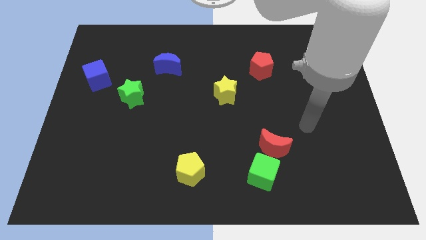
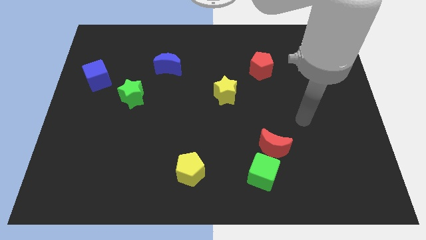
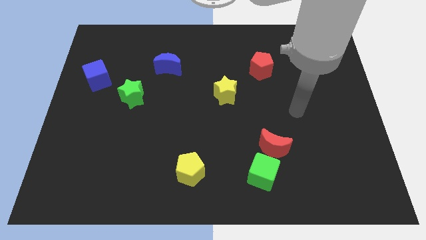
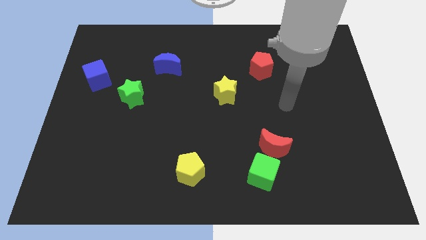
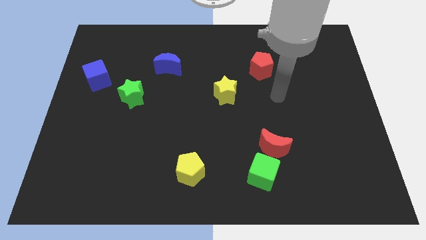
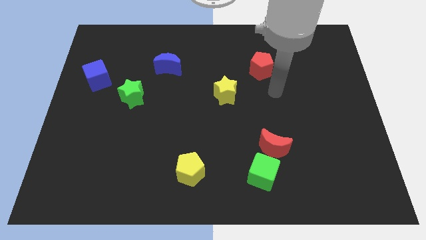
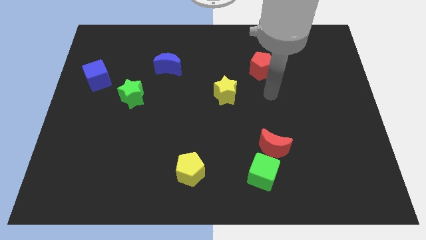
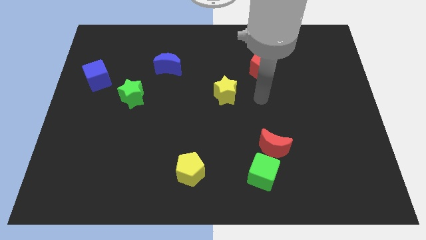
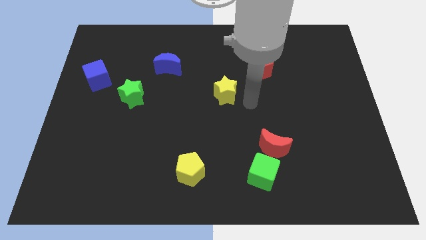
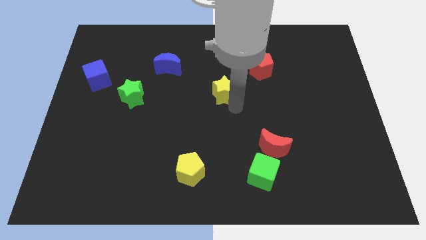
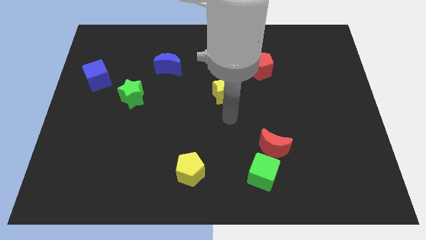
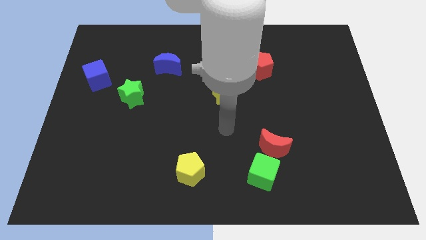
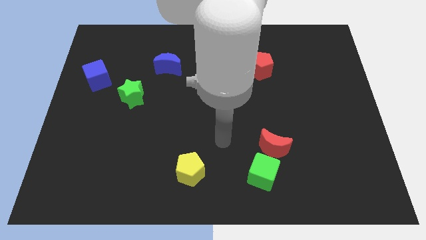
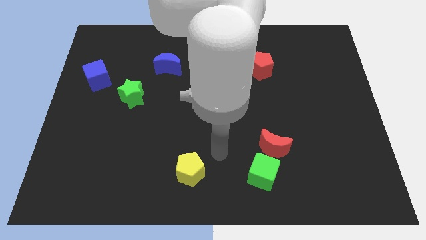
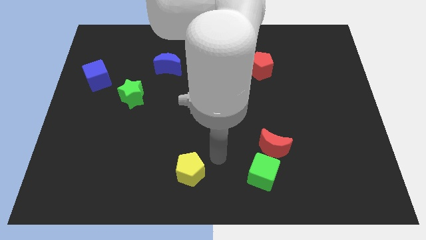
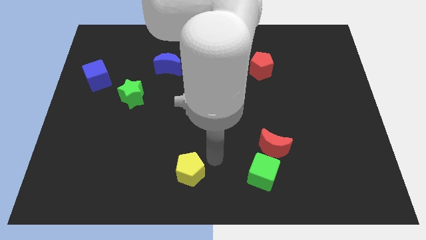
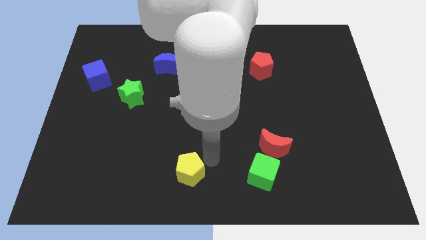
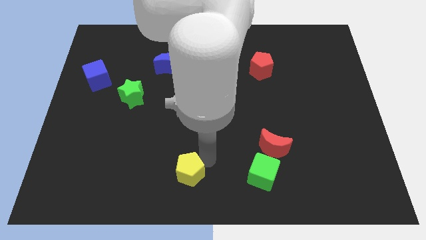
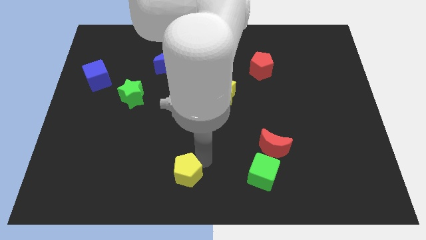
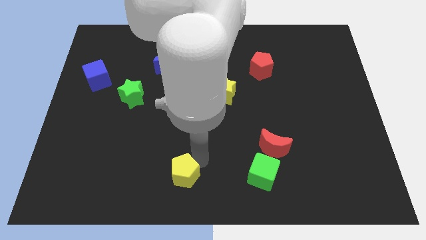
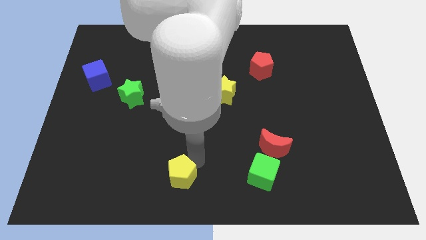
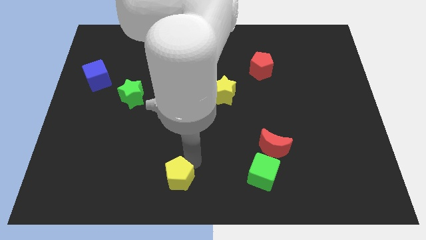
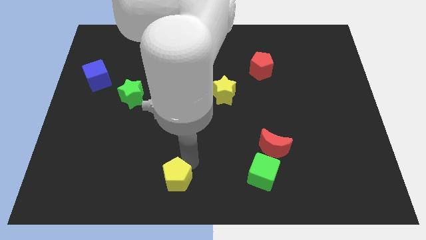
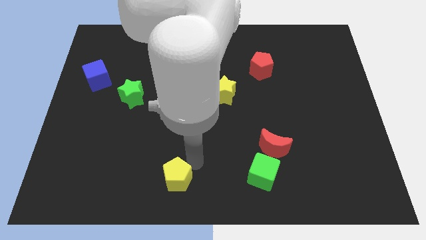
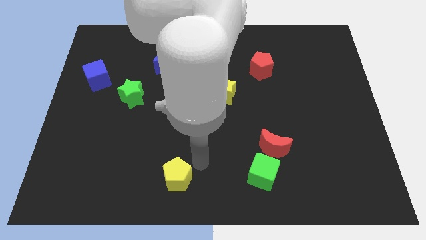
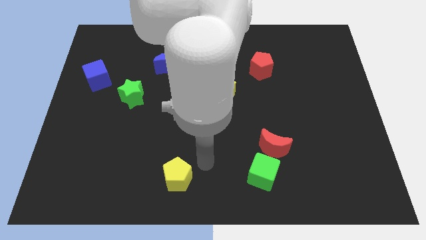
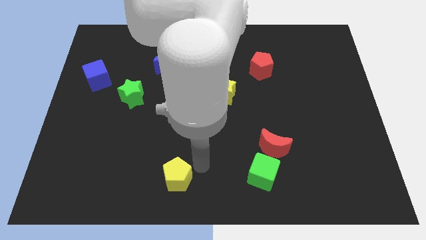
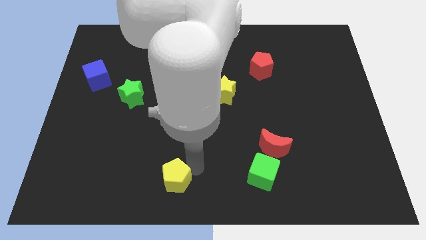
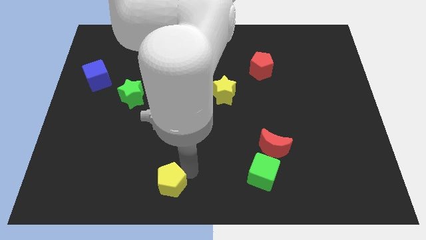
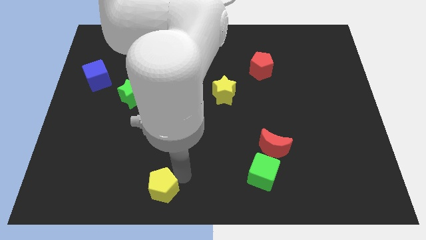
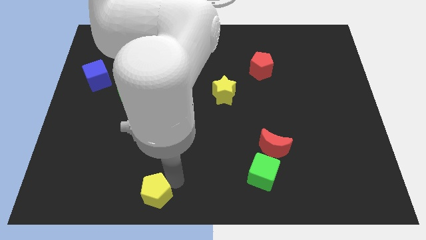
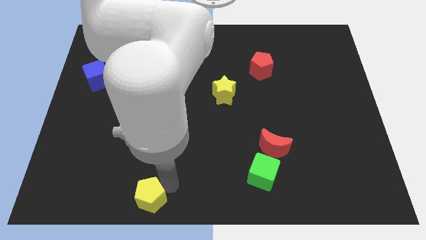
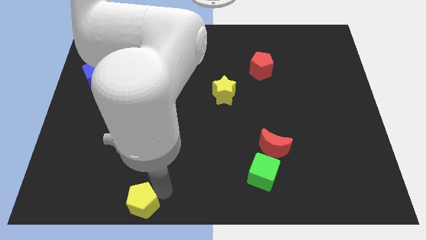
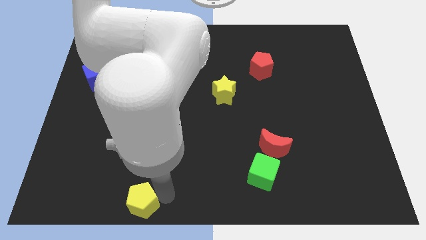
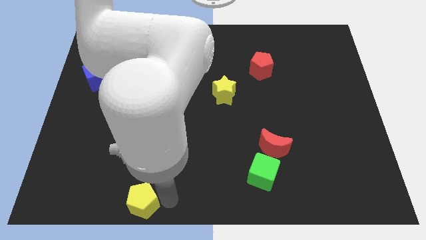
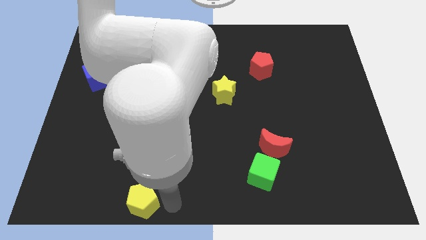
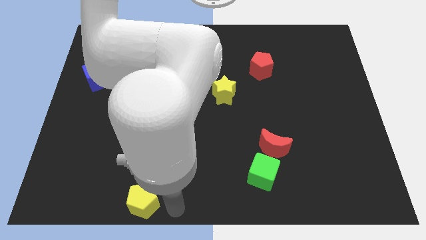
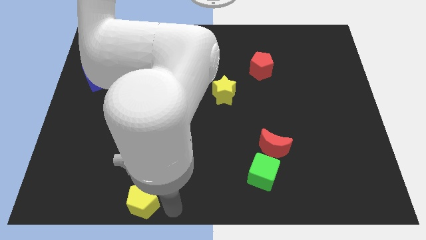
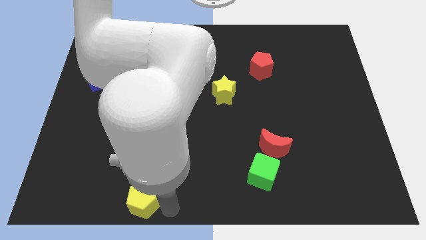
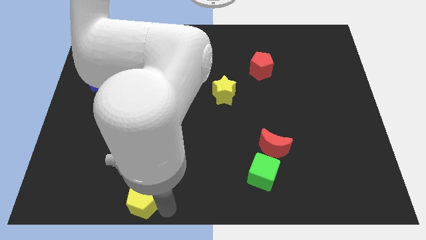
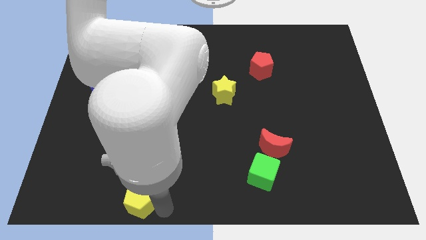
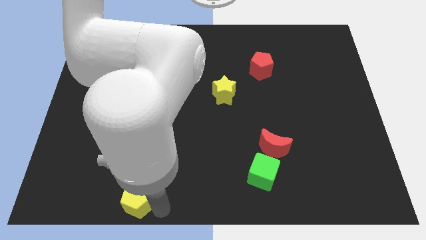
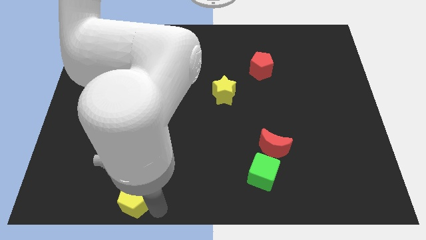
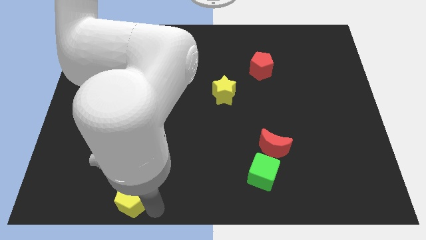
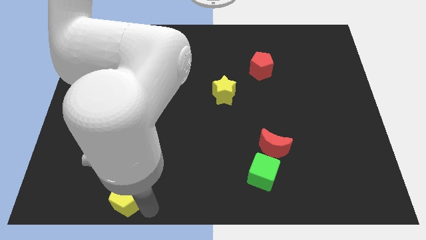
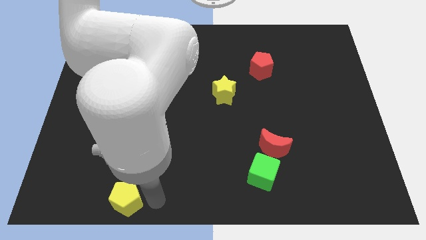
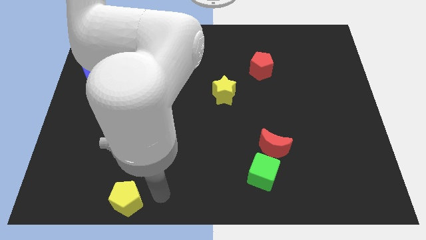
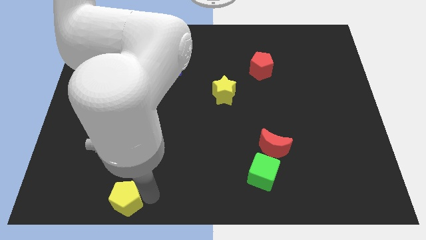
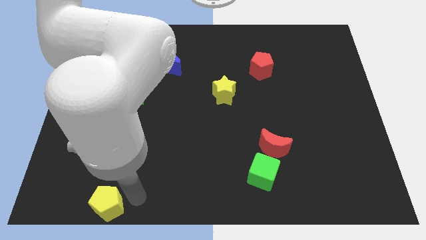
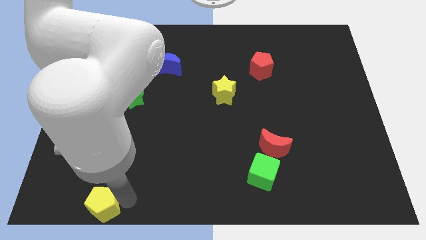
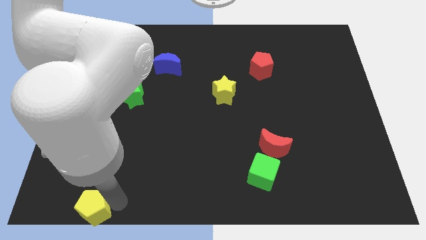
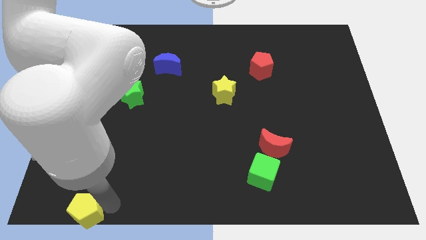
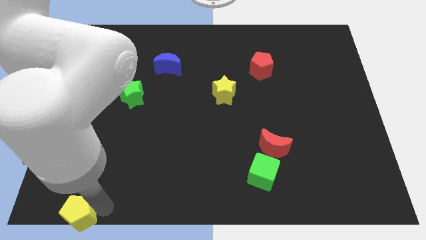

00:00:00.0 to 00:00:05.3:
move the yellow pentagon to the bottom left
